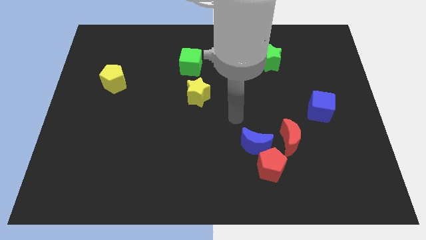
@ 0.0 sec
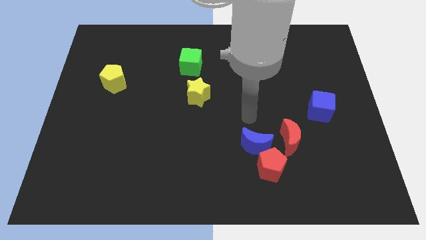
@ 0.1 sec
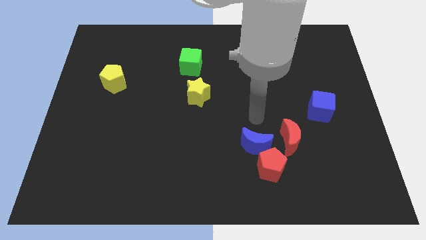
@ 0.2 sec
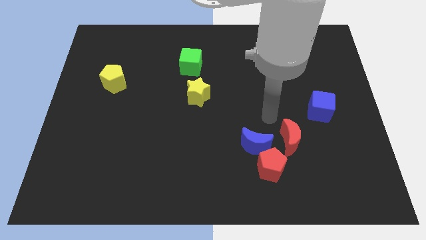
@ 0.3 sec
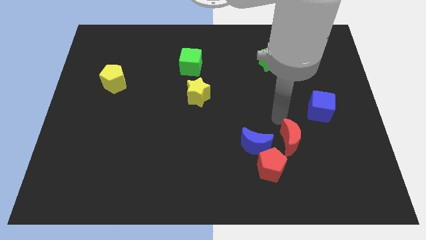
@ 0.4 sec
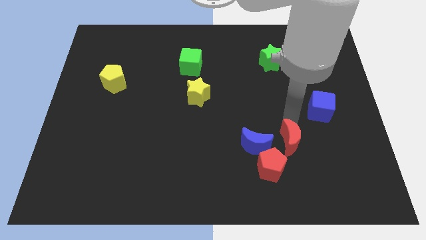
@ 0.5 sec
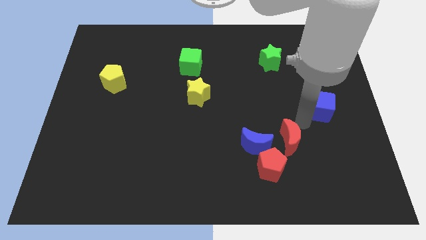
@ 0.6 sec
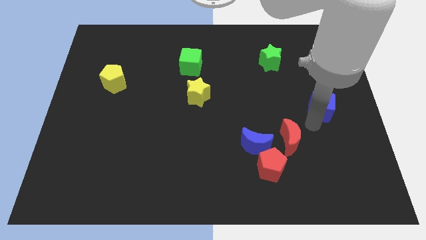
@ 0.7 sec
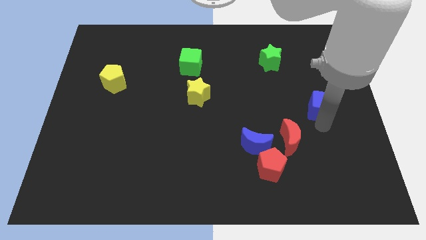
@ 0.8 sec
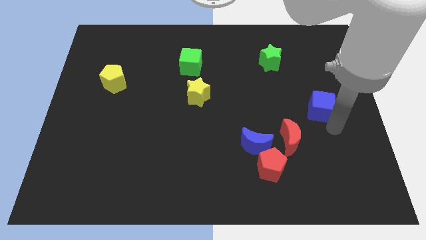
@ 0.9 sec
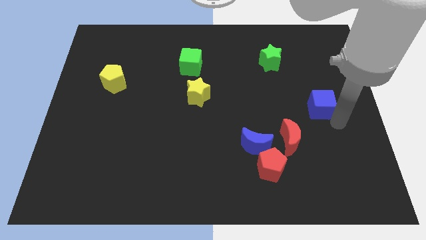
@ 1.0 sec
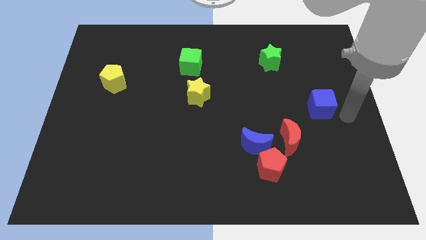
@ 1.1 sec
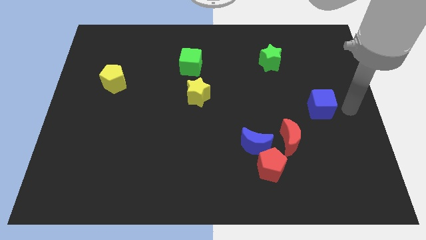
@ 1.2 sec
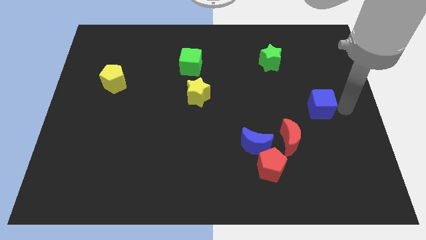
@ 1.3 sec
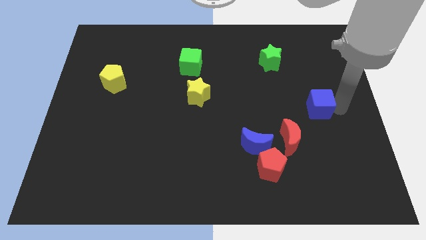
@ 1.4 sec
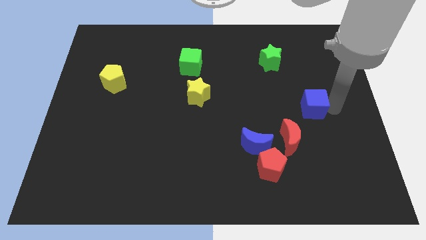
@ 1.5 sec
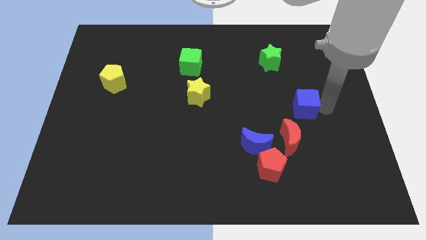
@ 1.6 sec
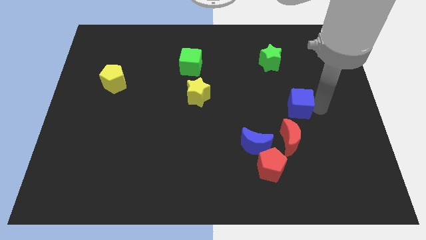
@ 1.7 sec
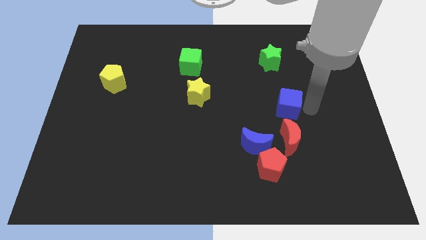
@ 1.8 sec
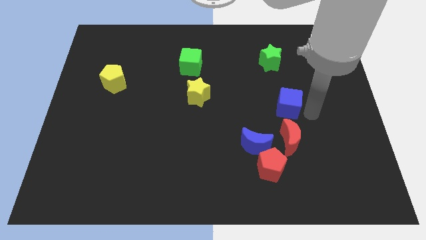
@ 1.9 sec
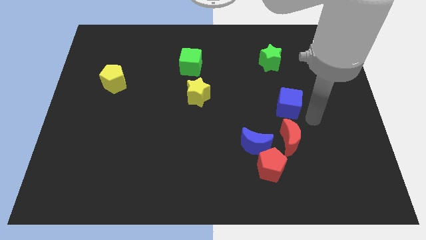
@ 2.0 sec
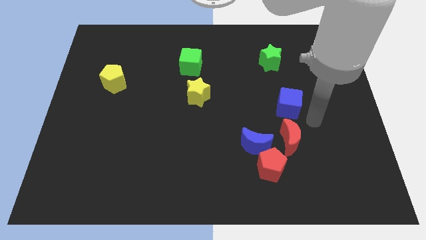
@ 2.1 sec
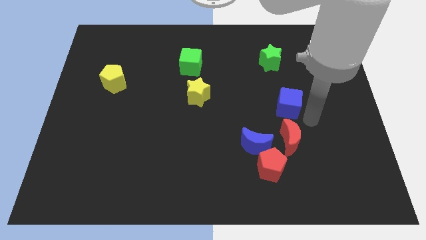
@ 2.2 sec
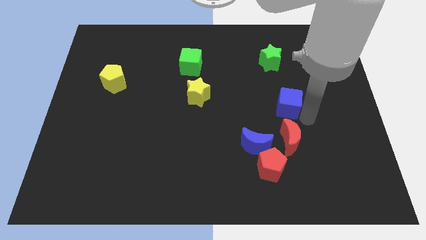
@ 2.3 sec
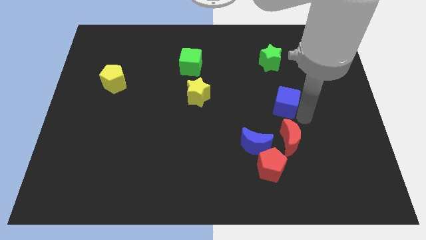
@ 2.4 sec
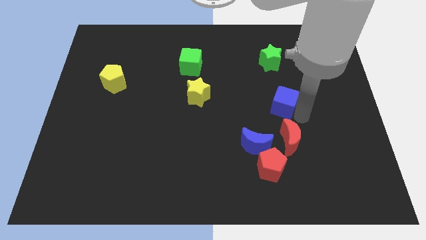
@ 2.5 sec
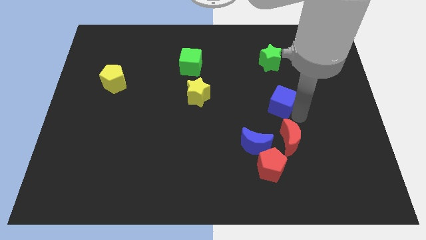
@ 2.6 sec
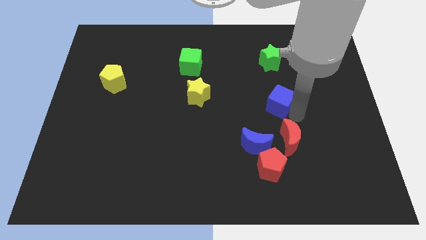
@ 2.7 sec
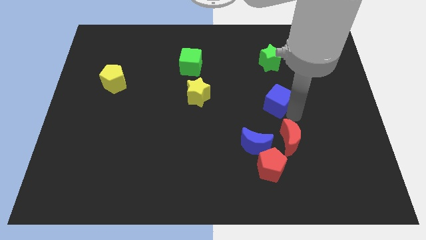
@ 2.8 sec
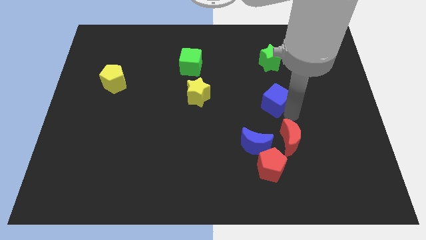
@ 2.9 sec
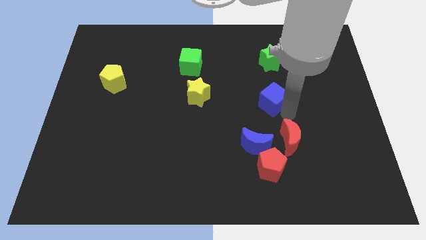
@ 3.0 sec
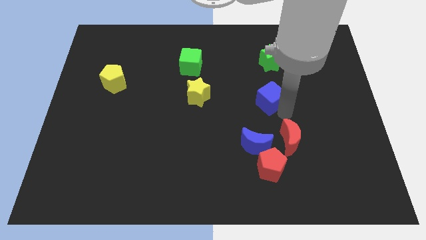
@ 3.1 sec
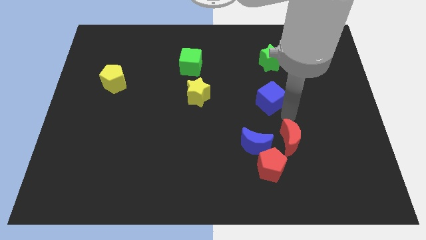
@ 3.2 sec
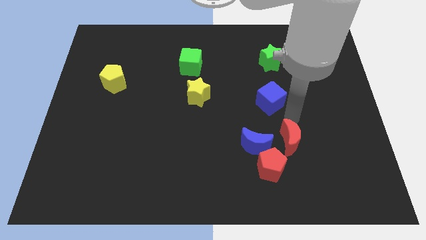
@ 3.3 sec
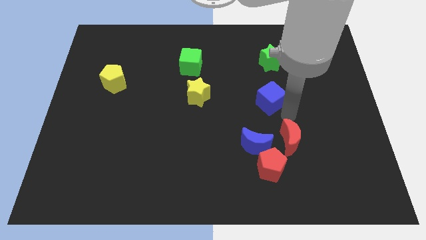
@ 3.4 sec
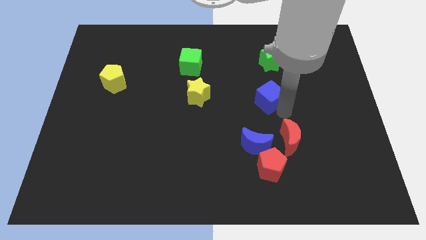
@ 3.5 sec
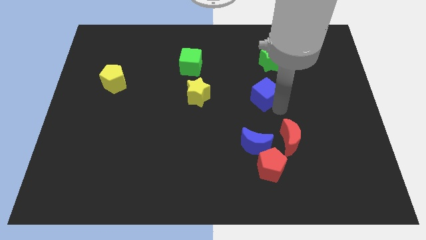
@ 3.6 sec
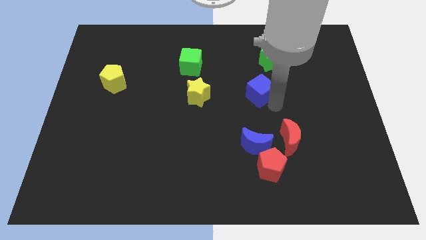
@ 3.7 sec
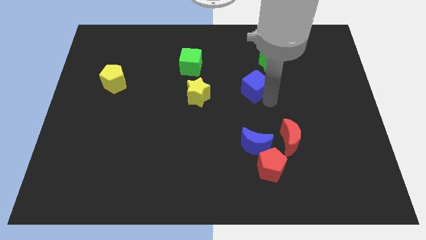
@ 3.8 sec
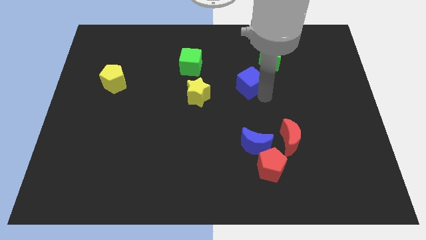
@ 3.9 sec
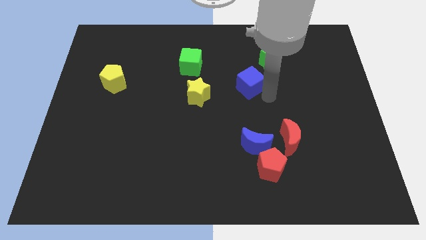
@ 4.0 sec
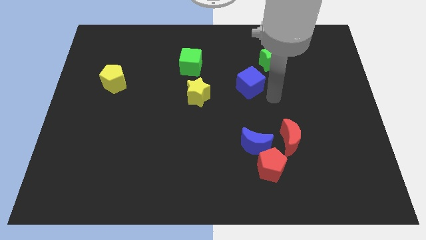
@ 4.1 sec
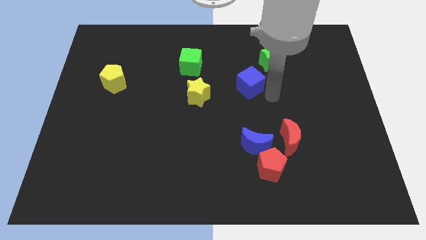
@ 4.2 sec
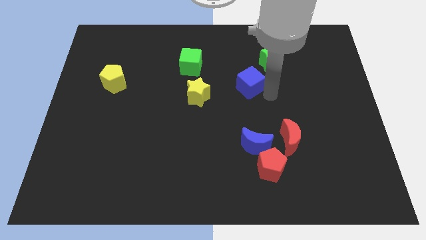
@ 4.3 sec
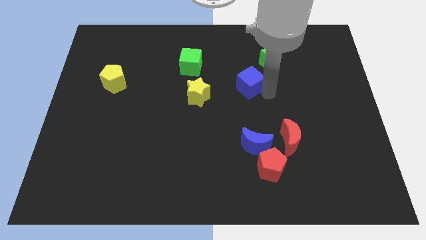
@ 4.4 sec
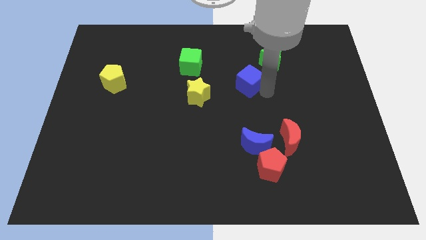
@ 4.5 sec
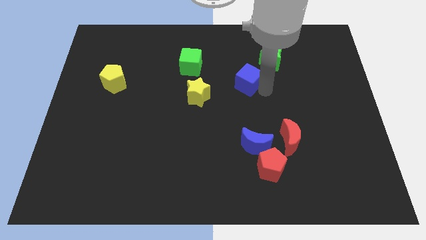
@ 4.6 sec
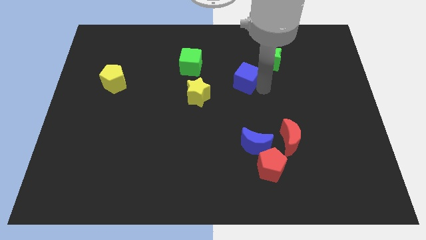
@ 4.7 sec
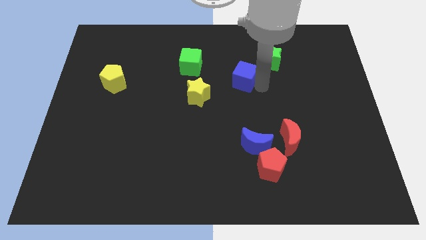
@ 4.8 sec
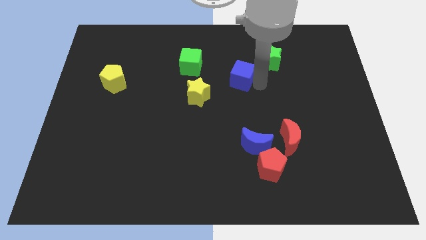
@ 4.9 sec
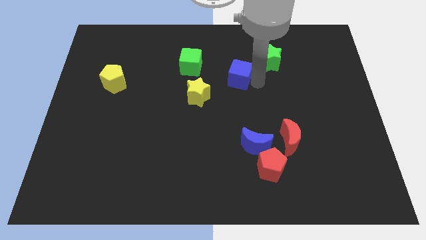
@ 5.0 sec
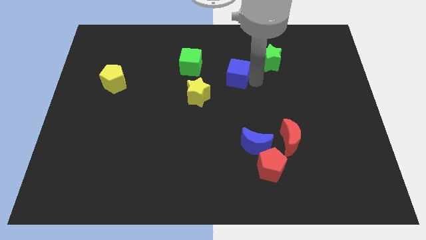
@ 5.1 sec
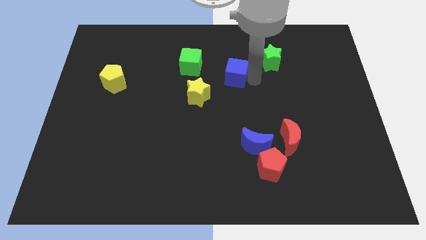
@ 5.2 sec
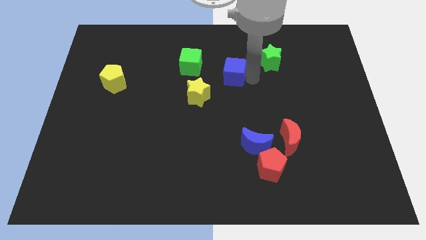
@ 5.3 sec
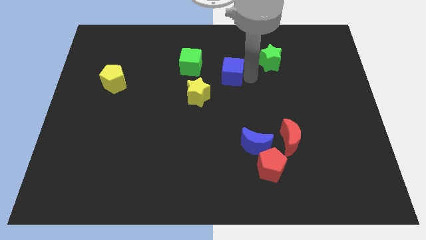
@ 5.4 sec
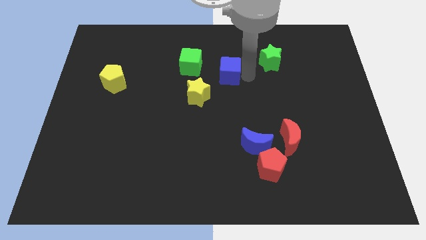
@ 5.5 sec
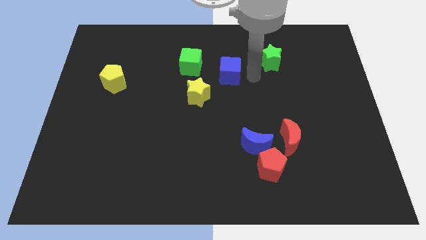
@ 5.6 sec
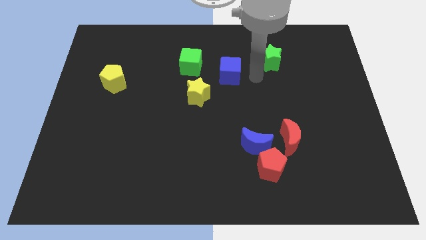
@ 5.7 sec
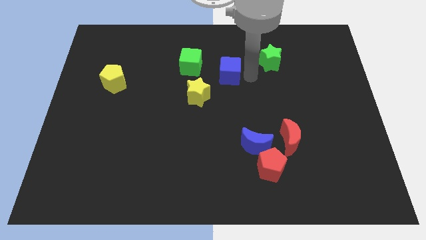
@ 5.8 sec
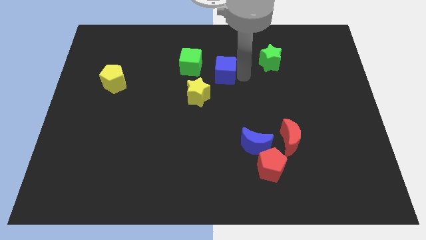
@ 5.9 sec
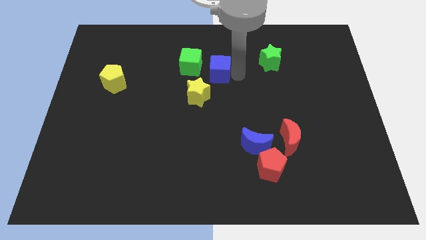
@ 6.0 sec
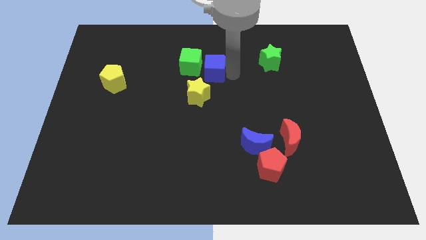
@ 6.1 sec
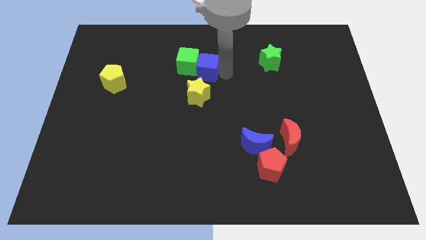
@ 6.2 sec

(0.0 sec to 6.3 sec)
move the blue cube towards the green cube
